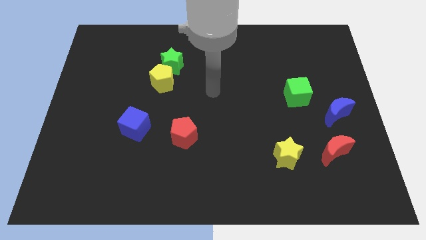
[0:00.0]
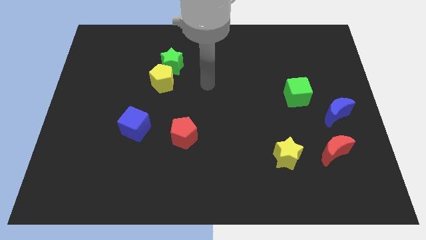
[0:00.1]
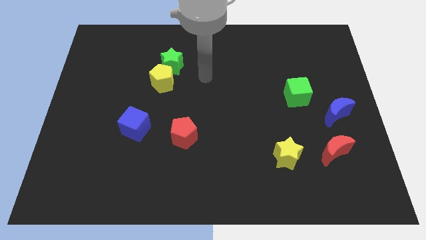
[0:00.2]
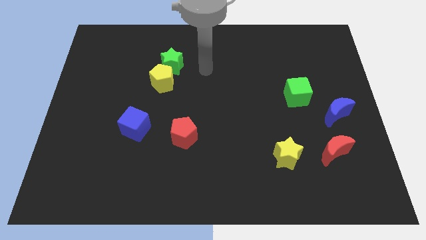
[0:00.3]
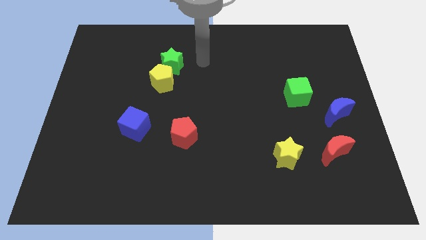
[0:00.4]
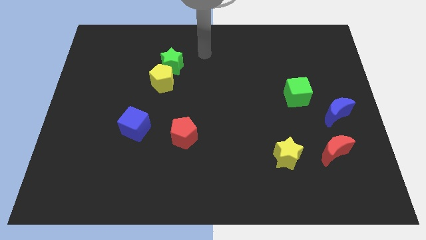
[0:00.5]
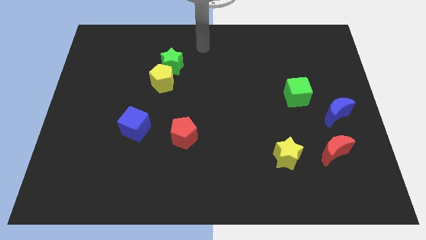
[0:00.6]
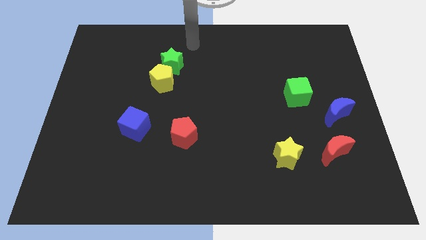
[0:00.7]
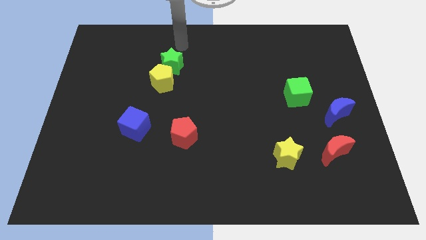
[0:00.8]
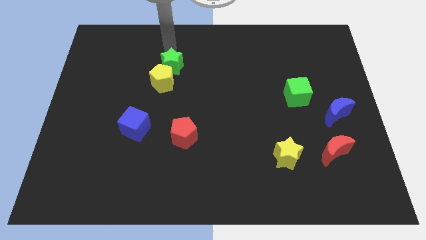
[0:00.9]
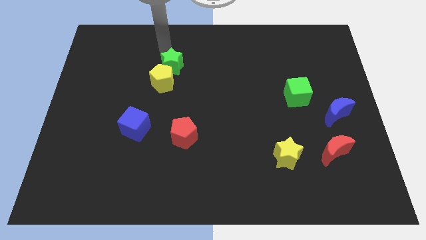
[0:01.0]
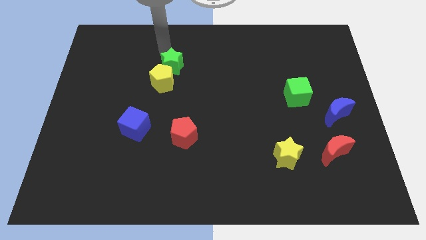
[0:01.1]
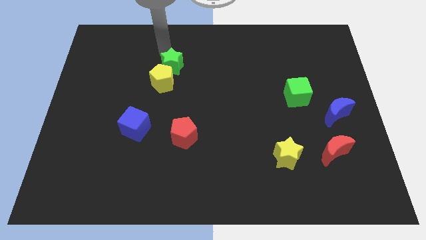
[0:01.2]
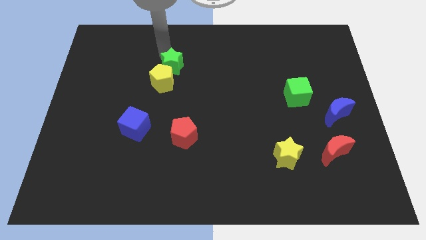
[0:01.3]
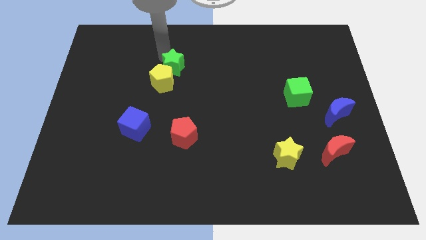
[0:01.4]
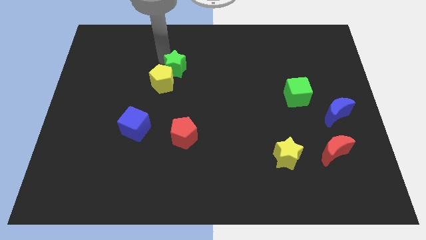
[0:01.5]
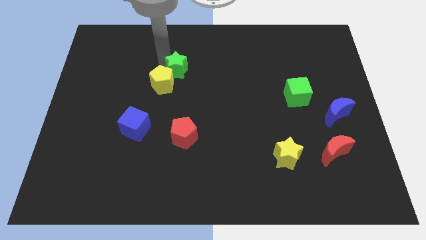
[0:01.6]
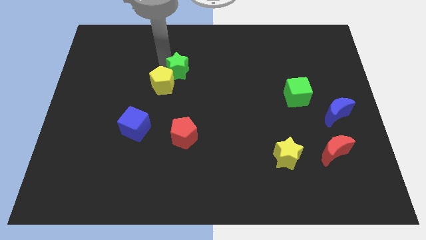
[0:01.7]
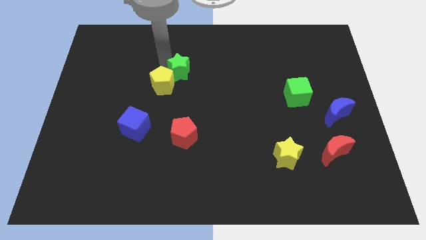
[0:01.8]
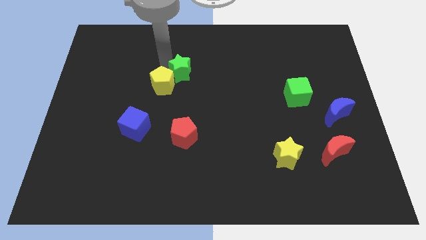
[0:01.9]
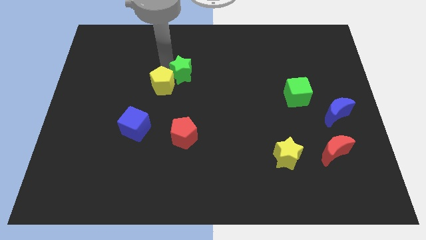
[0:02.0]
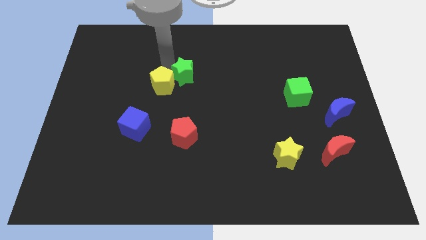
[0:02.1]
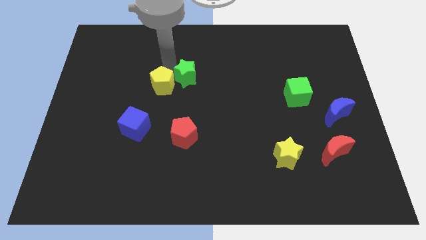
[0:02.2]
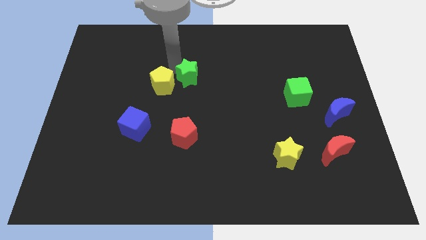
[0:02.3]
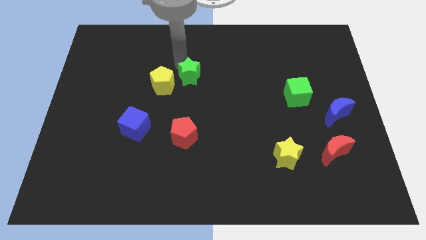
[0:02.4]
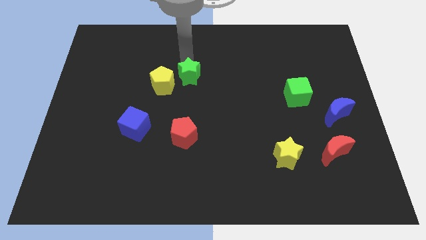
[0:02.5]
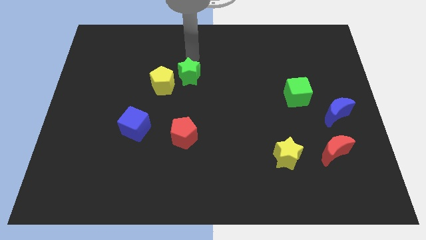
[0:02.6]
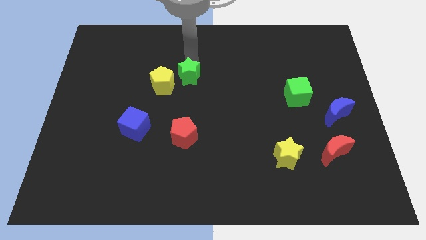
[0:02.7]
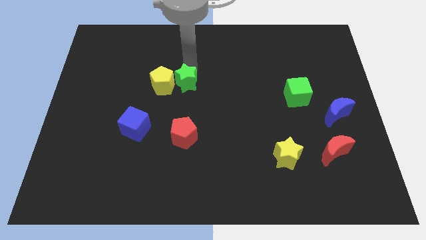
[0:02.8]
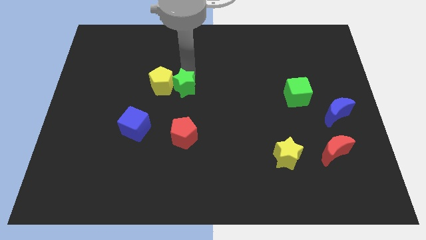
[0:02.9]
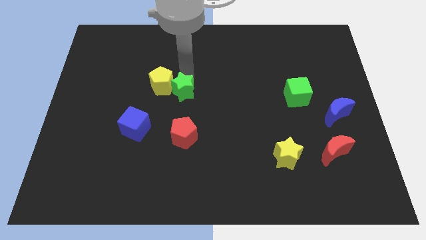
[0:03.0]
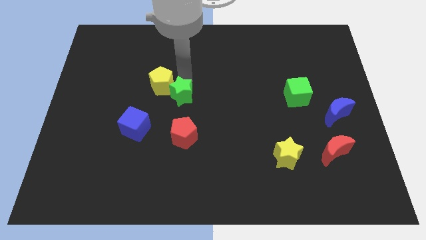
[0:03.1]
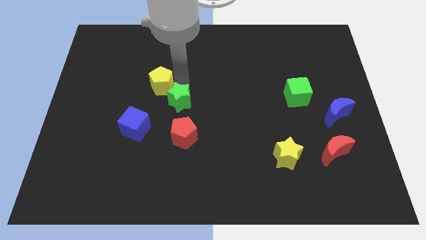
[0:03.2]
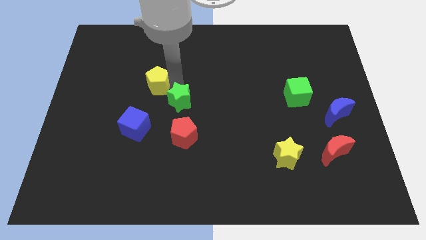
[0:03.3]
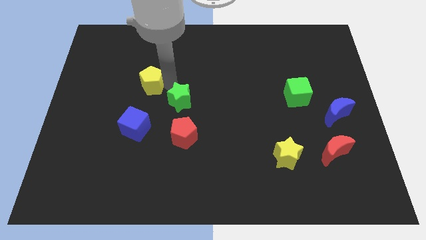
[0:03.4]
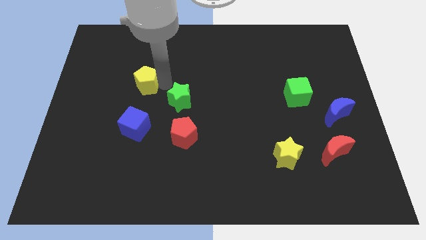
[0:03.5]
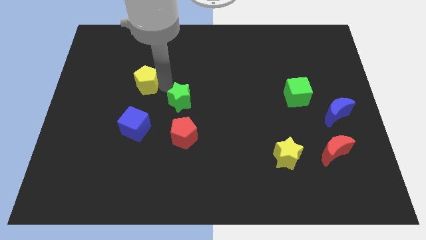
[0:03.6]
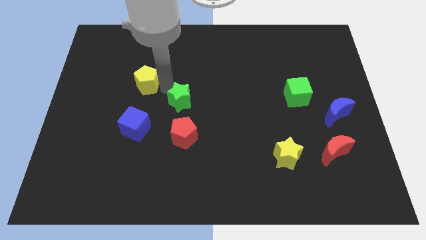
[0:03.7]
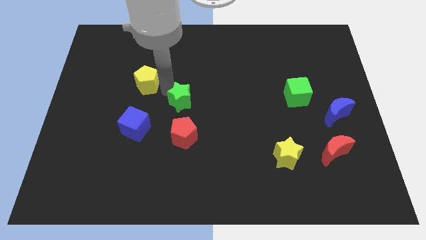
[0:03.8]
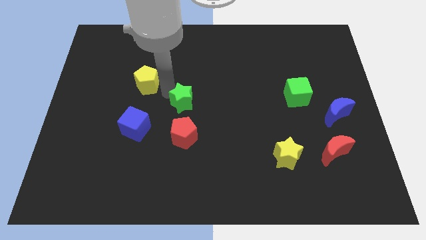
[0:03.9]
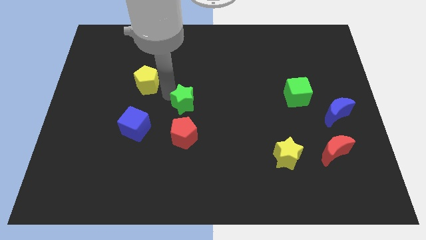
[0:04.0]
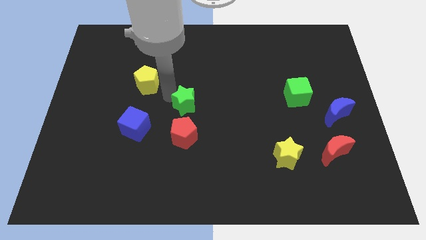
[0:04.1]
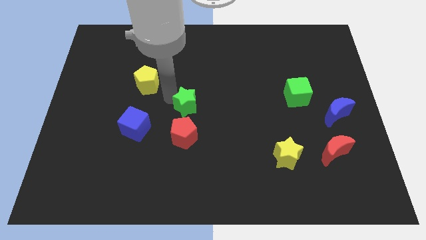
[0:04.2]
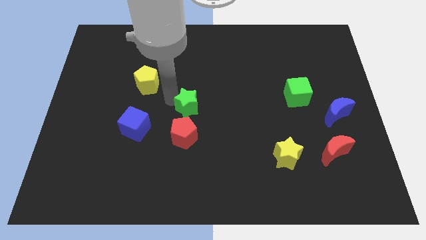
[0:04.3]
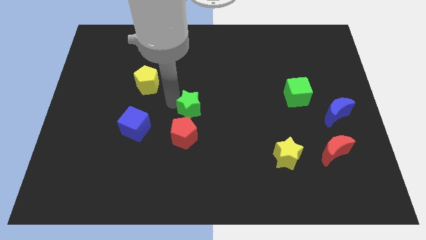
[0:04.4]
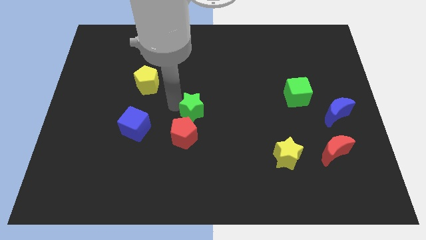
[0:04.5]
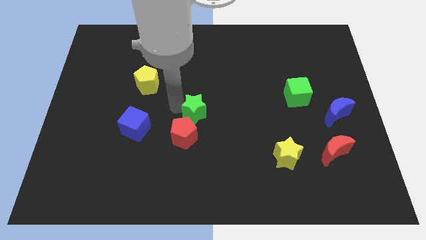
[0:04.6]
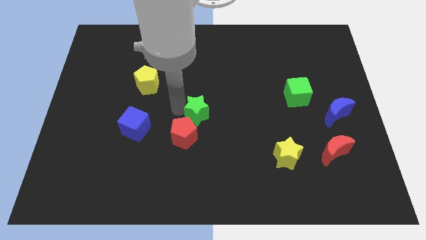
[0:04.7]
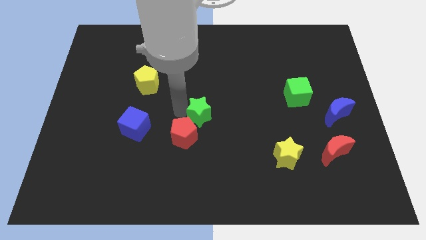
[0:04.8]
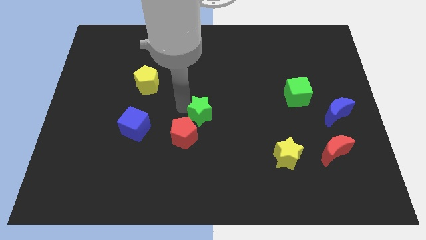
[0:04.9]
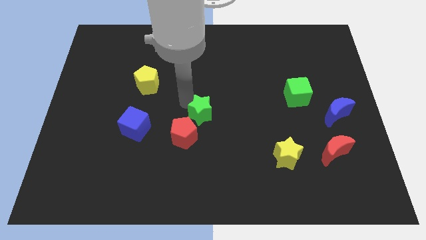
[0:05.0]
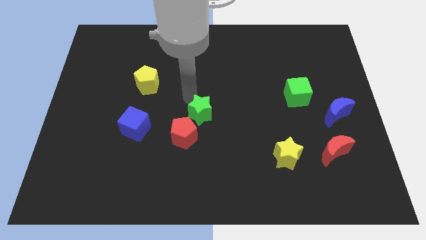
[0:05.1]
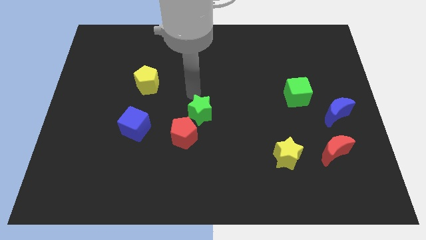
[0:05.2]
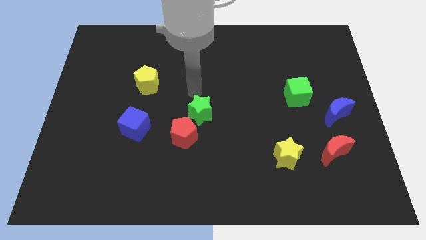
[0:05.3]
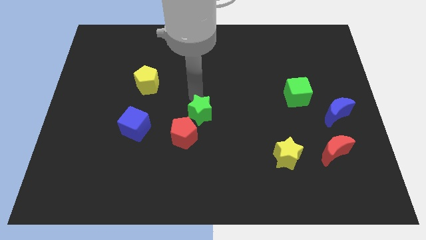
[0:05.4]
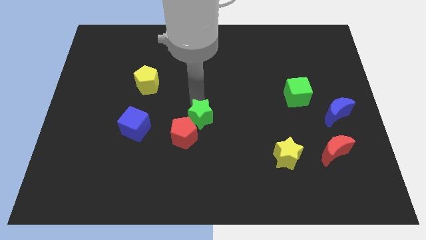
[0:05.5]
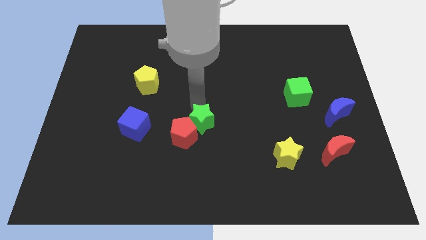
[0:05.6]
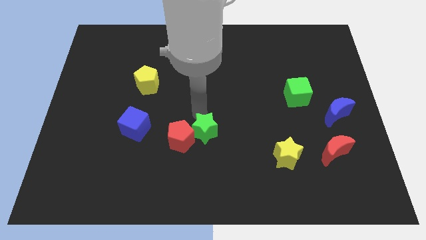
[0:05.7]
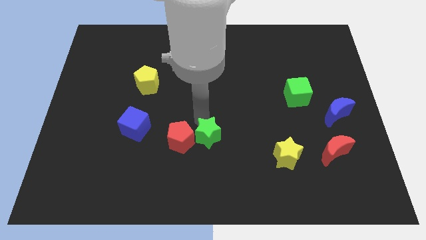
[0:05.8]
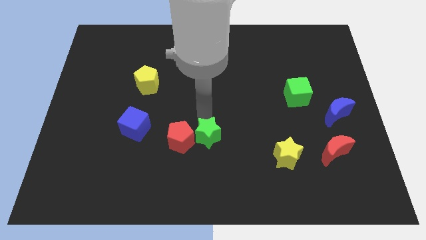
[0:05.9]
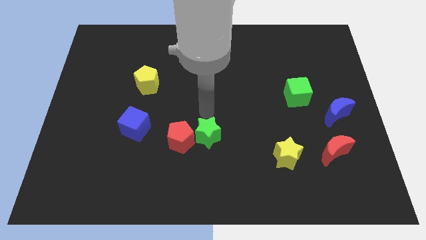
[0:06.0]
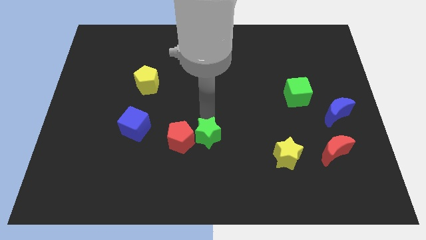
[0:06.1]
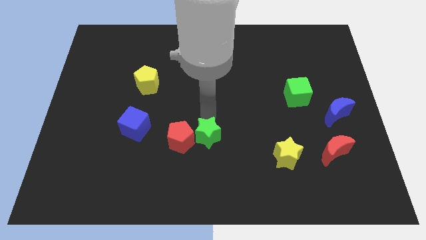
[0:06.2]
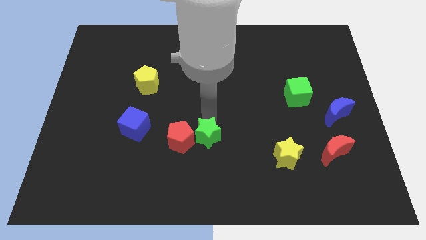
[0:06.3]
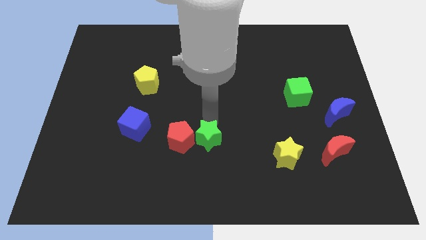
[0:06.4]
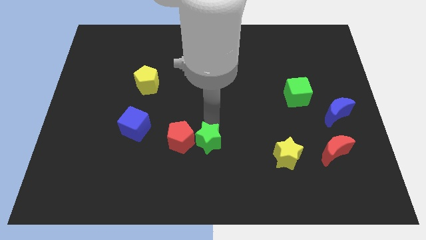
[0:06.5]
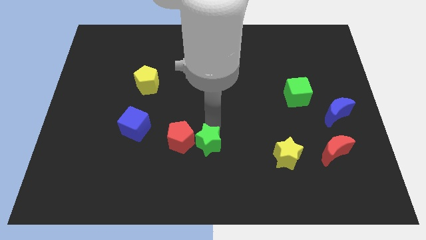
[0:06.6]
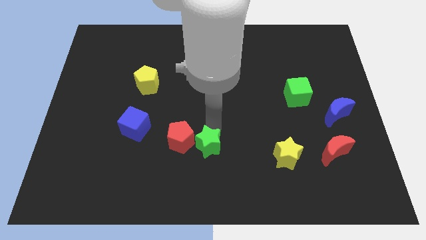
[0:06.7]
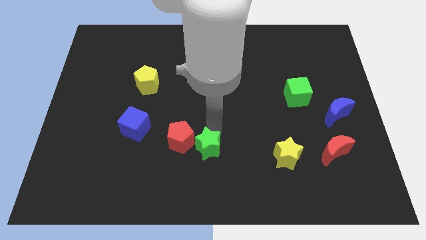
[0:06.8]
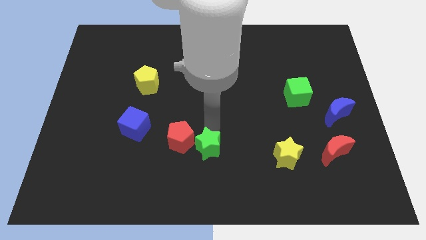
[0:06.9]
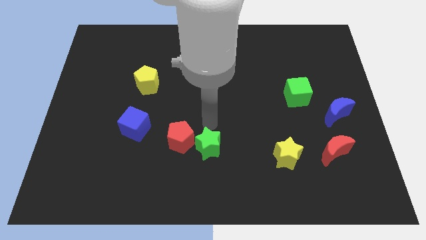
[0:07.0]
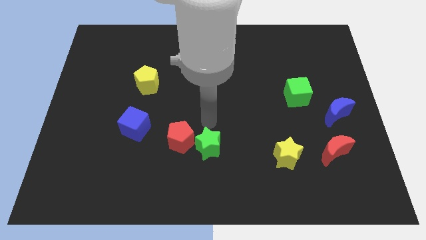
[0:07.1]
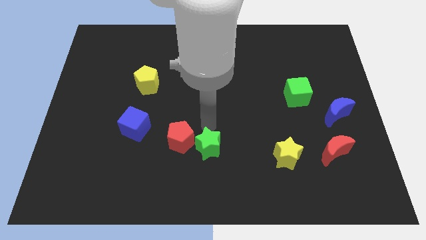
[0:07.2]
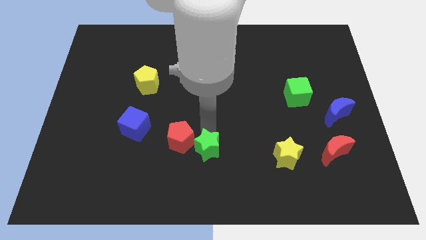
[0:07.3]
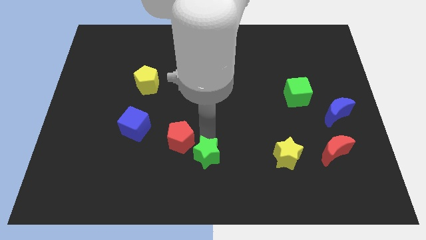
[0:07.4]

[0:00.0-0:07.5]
put the green star to the bottom side
